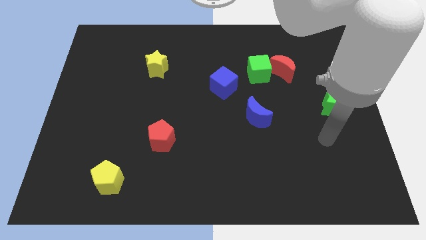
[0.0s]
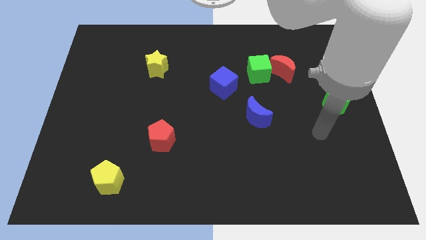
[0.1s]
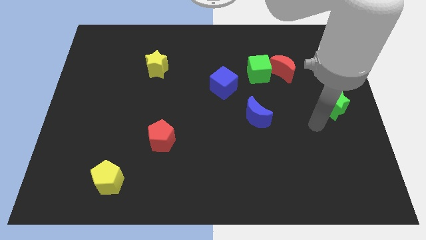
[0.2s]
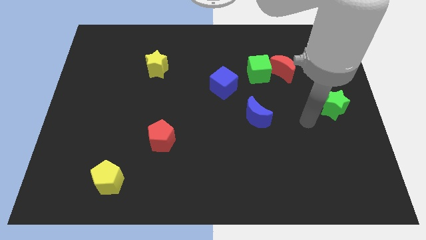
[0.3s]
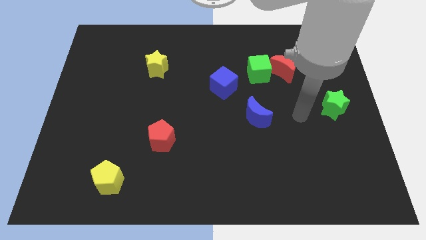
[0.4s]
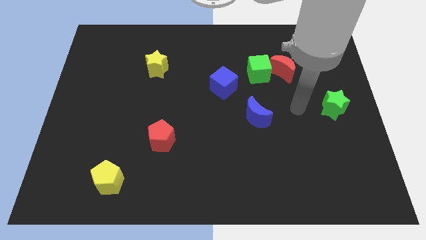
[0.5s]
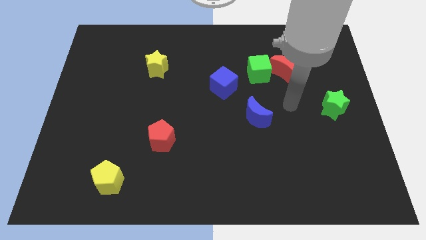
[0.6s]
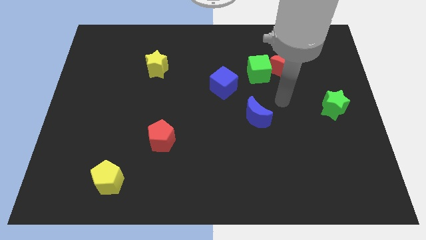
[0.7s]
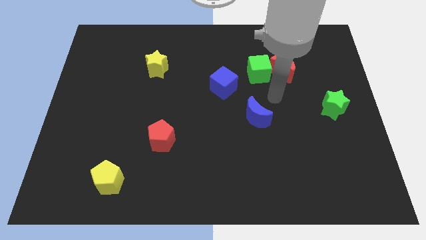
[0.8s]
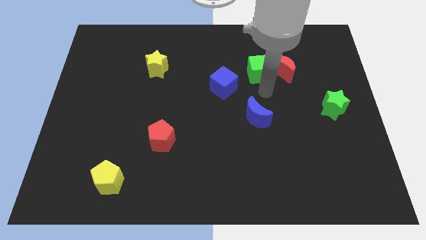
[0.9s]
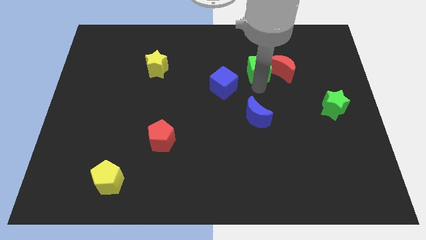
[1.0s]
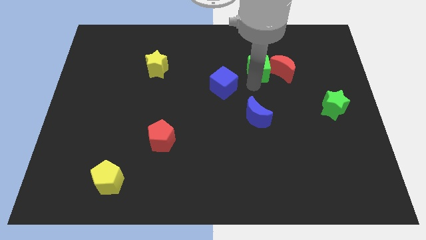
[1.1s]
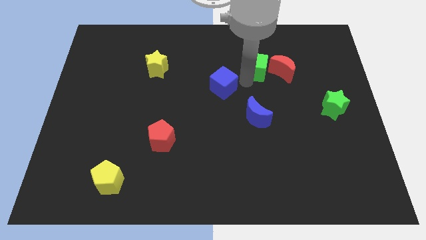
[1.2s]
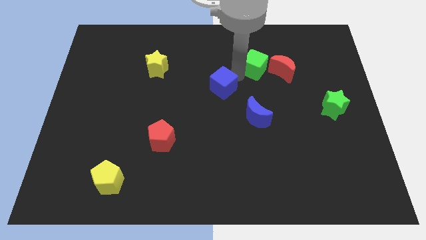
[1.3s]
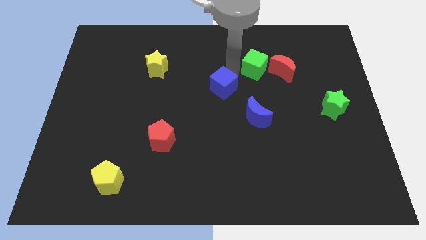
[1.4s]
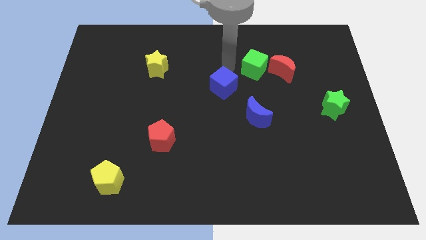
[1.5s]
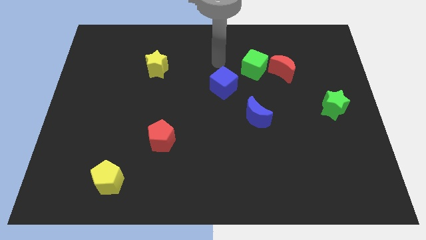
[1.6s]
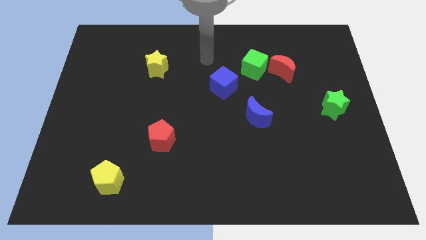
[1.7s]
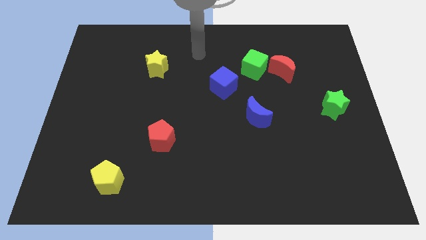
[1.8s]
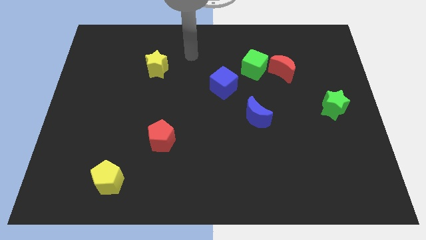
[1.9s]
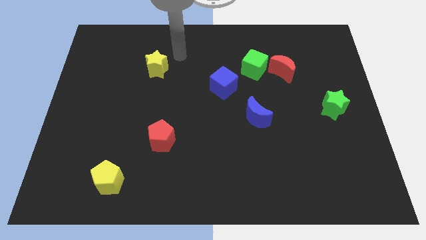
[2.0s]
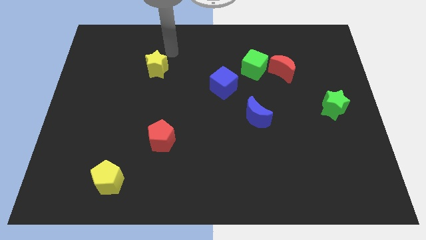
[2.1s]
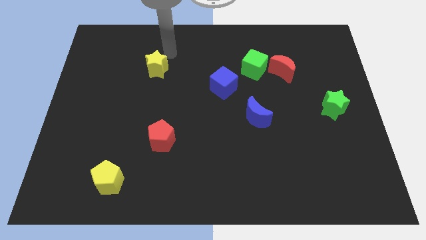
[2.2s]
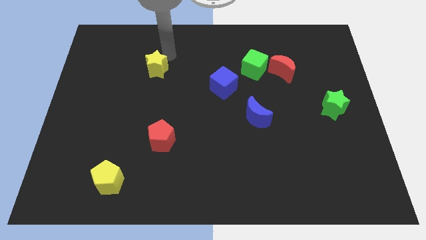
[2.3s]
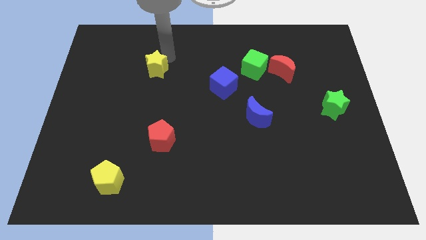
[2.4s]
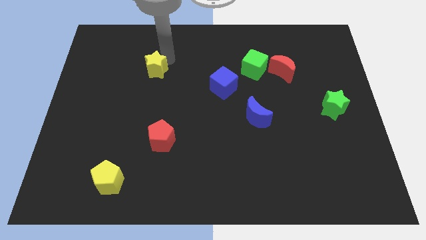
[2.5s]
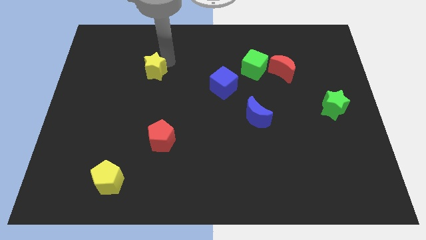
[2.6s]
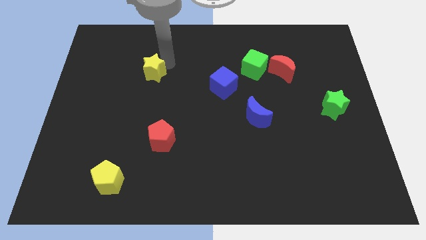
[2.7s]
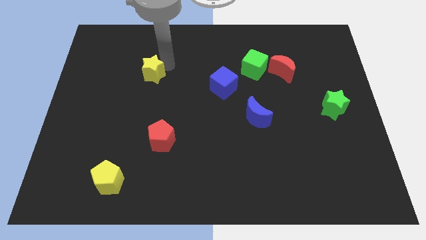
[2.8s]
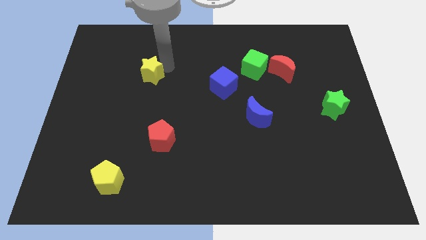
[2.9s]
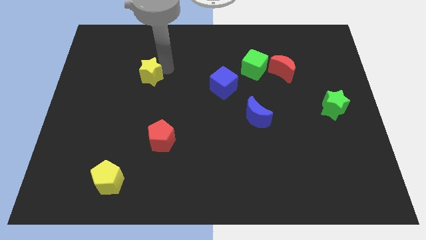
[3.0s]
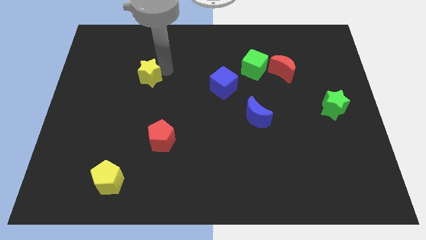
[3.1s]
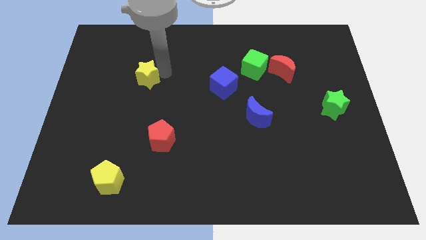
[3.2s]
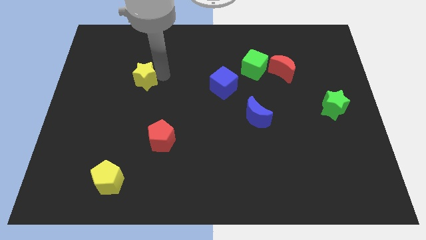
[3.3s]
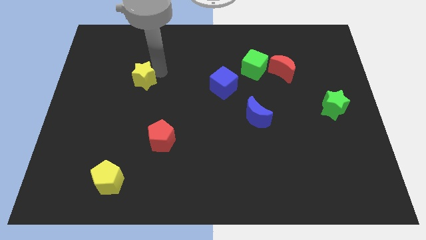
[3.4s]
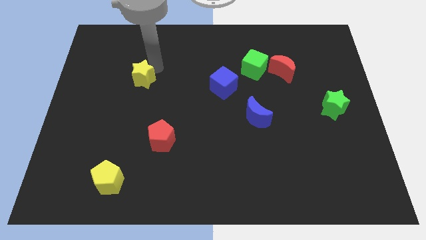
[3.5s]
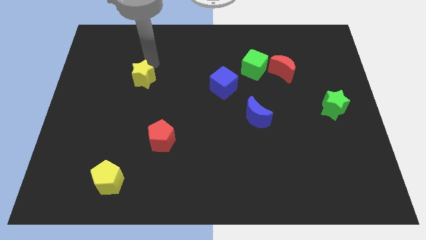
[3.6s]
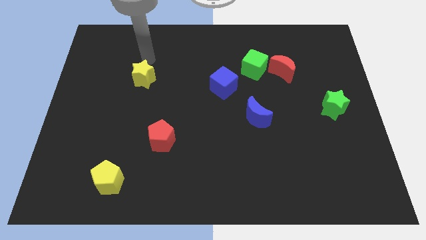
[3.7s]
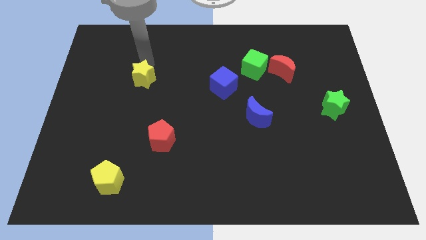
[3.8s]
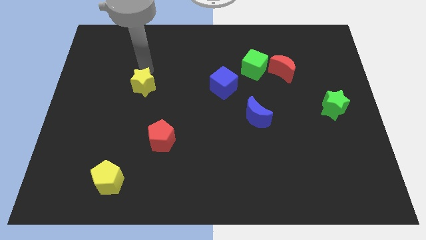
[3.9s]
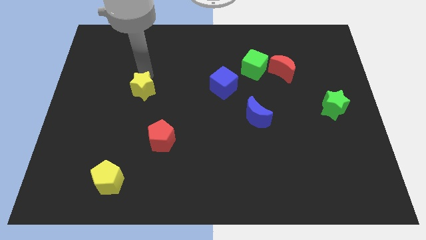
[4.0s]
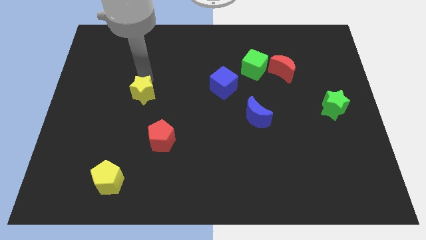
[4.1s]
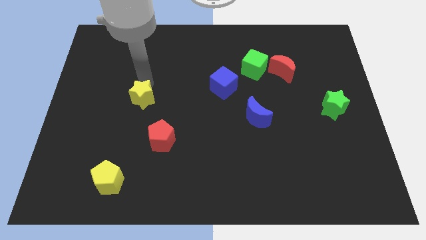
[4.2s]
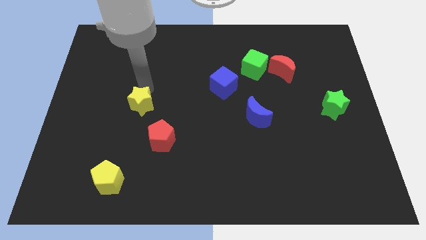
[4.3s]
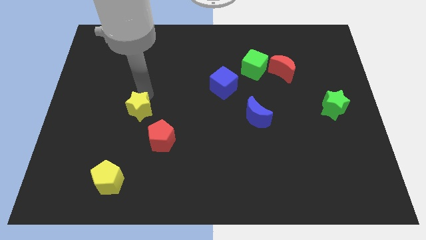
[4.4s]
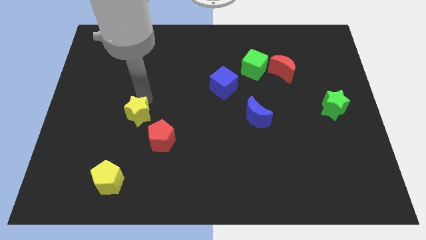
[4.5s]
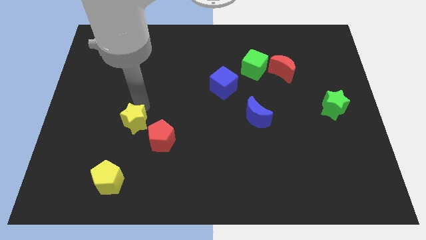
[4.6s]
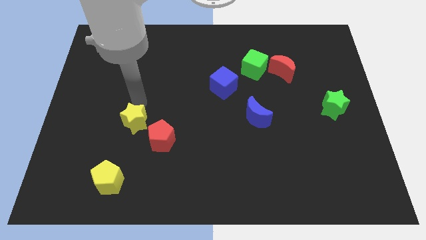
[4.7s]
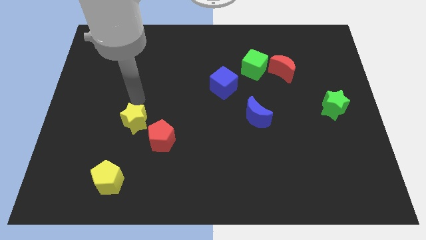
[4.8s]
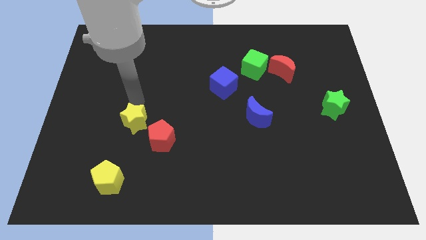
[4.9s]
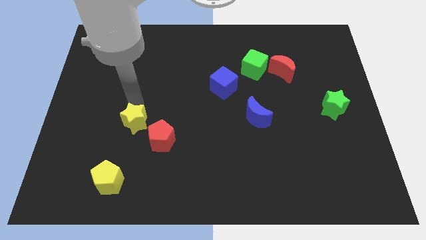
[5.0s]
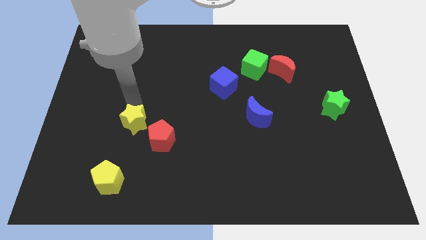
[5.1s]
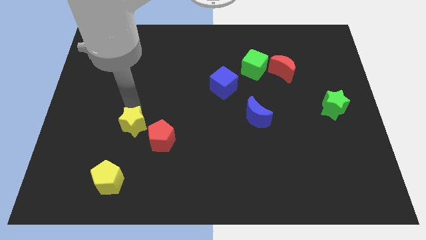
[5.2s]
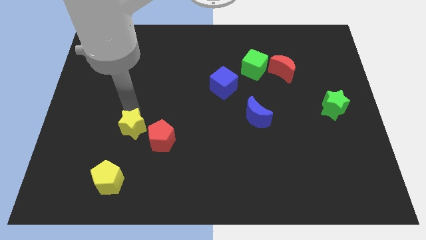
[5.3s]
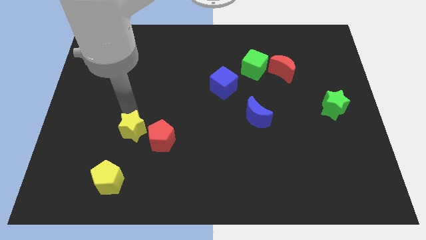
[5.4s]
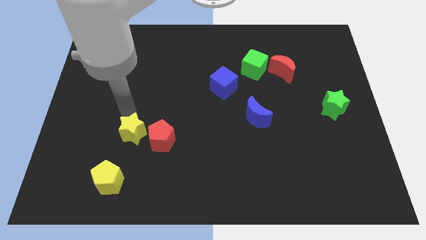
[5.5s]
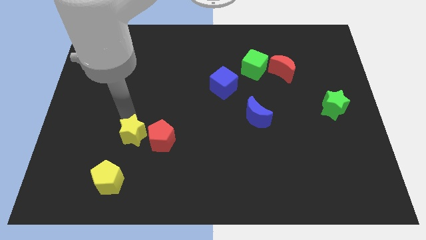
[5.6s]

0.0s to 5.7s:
move the yellow star down

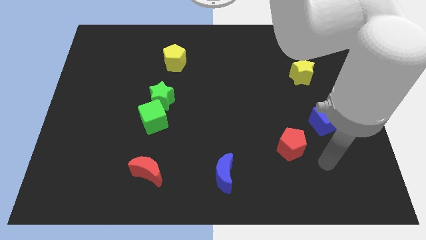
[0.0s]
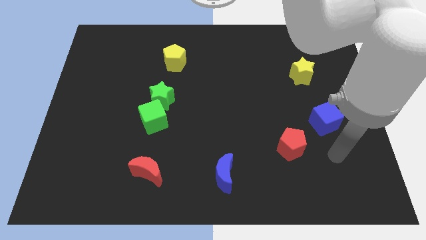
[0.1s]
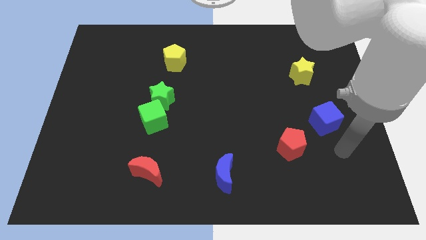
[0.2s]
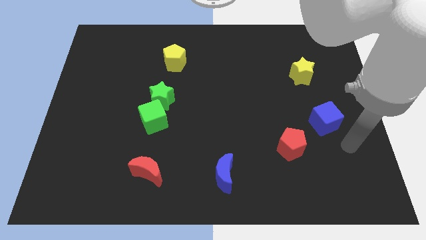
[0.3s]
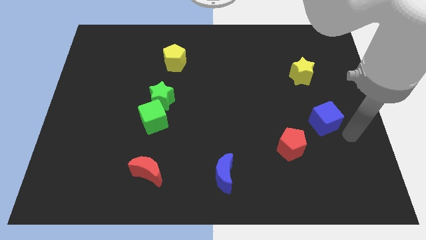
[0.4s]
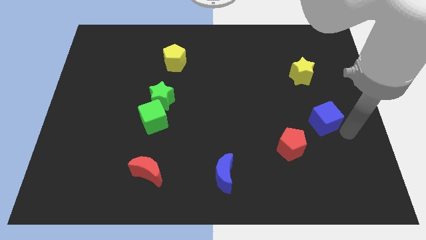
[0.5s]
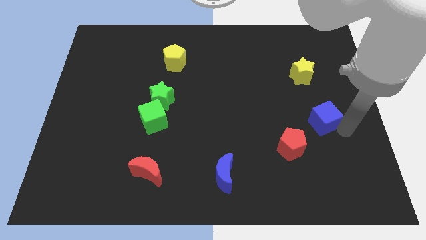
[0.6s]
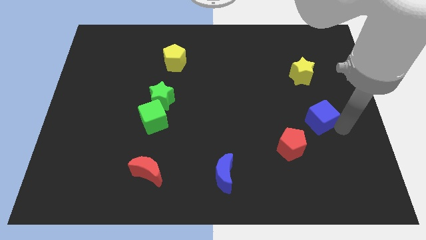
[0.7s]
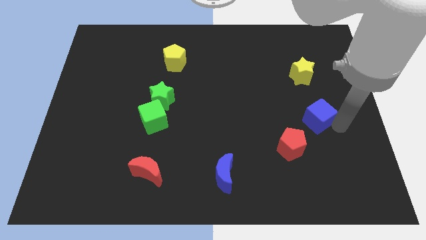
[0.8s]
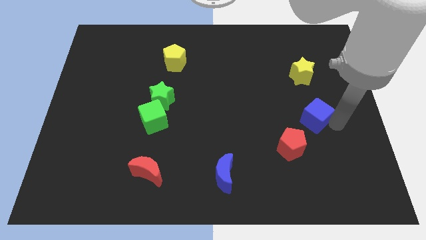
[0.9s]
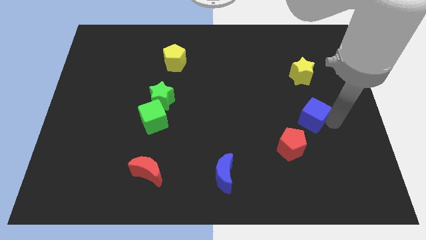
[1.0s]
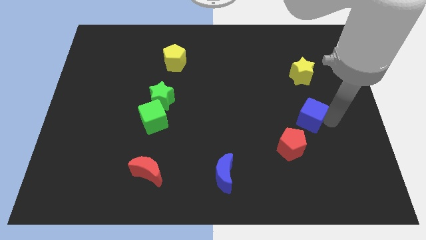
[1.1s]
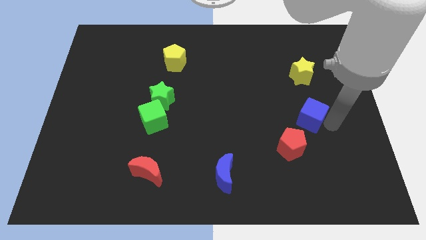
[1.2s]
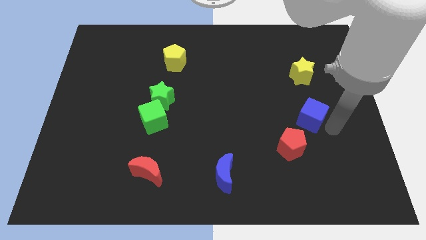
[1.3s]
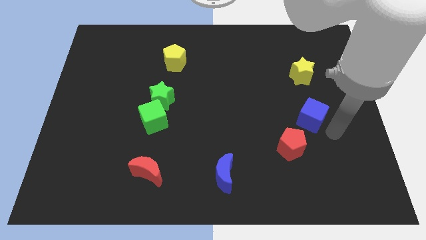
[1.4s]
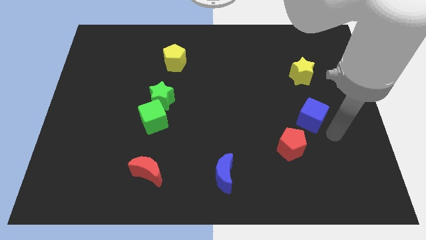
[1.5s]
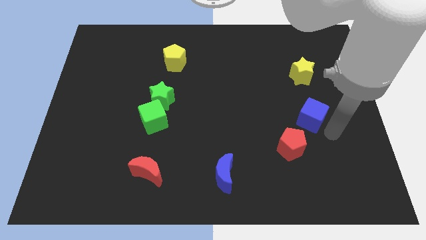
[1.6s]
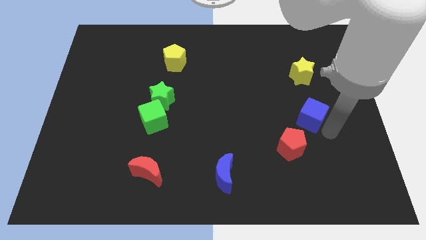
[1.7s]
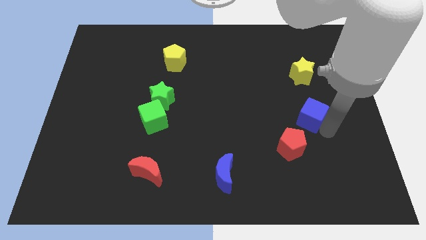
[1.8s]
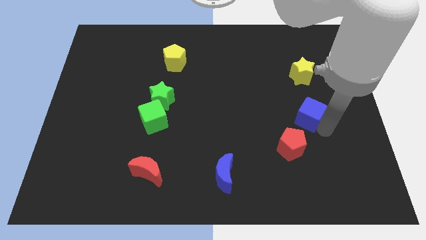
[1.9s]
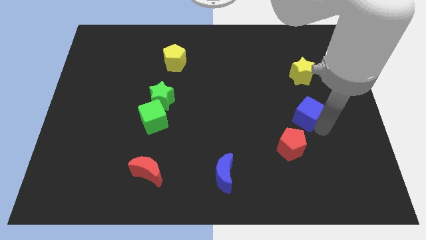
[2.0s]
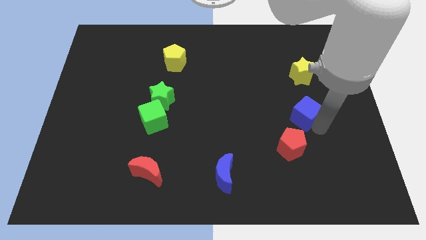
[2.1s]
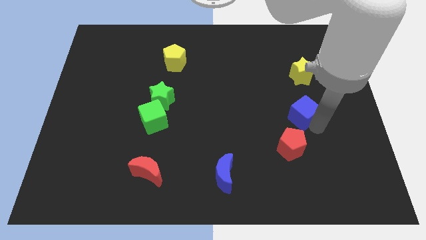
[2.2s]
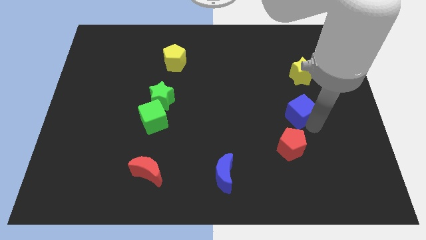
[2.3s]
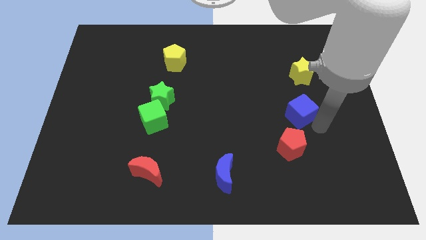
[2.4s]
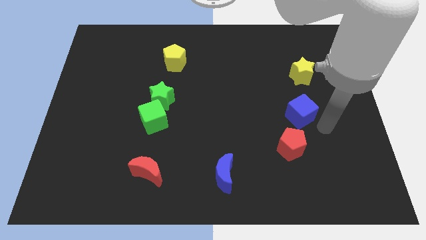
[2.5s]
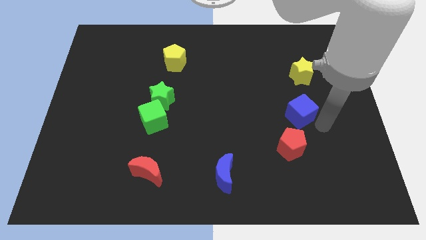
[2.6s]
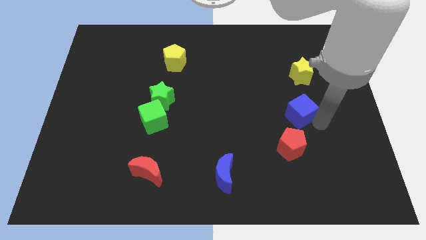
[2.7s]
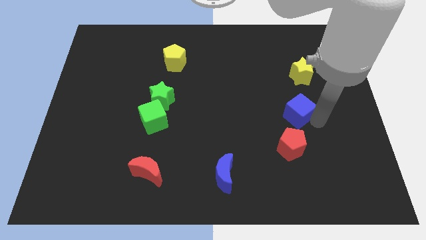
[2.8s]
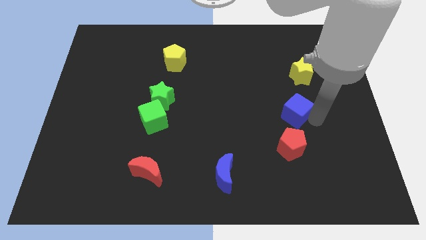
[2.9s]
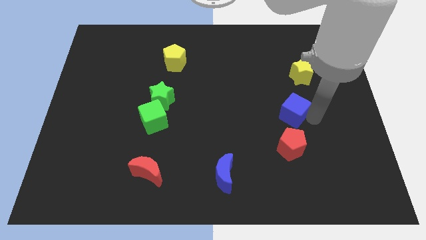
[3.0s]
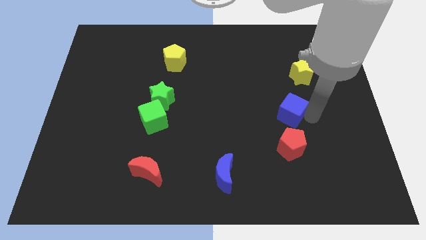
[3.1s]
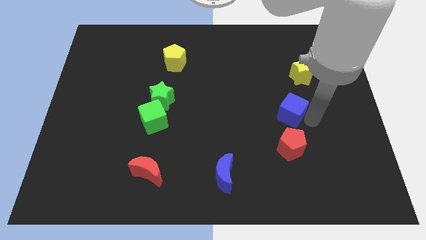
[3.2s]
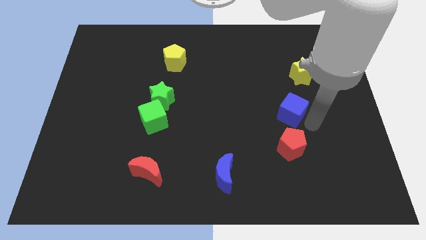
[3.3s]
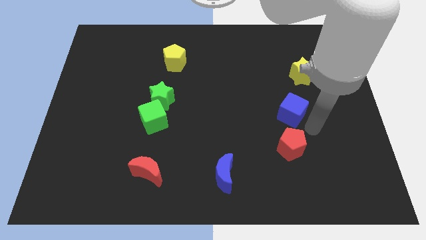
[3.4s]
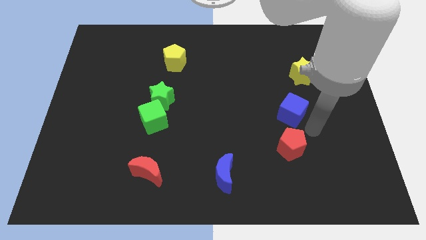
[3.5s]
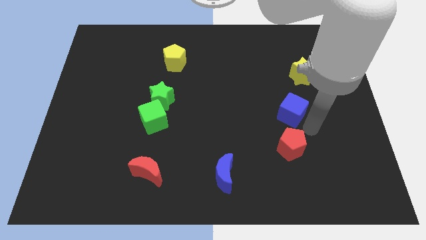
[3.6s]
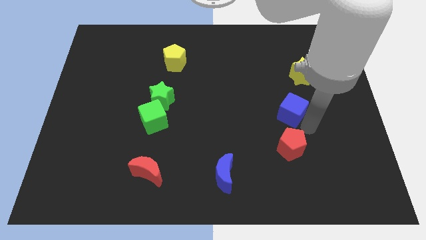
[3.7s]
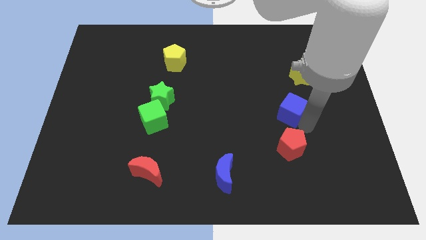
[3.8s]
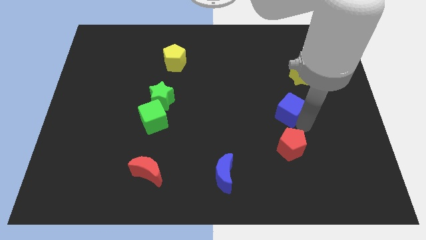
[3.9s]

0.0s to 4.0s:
push the blue cube up and to the left a little
